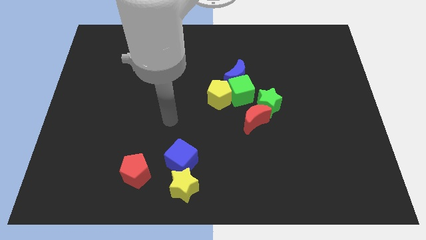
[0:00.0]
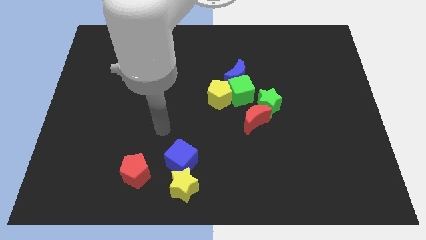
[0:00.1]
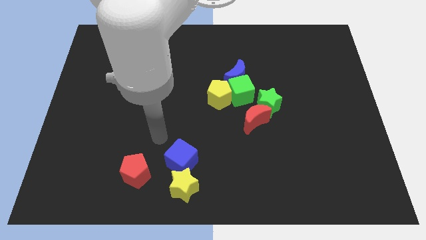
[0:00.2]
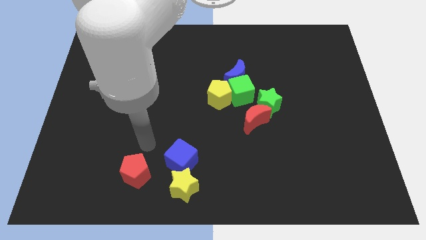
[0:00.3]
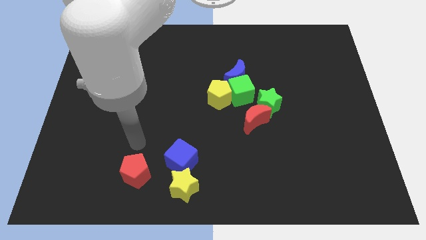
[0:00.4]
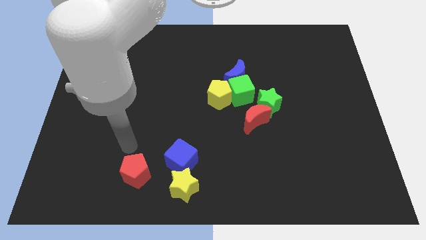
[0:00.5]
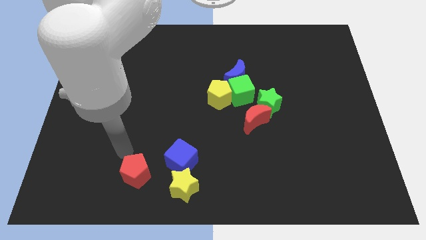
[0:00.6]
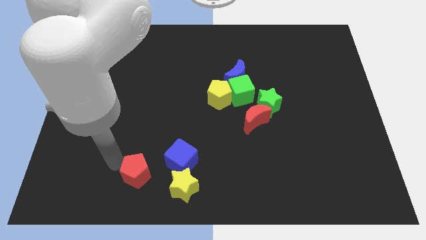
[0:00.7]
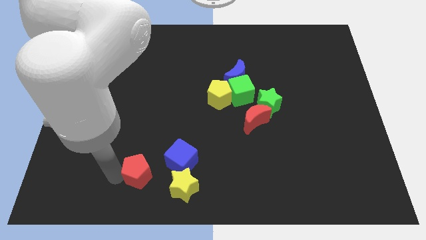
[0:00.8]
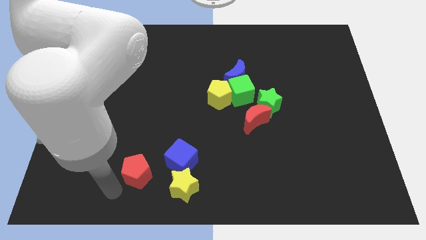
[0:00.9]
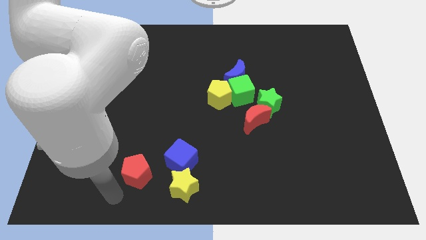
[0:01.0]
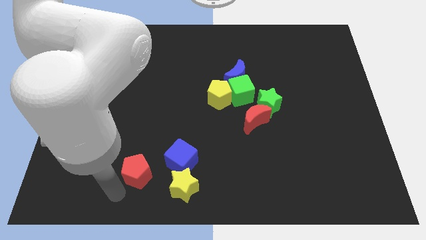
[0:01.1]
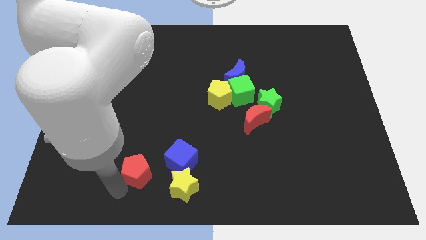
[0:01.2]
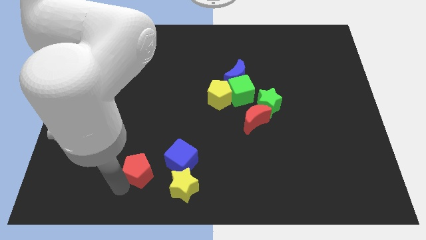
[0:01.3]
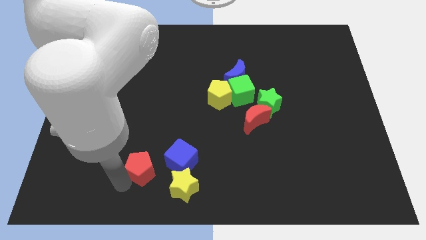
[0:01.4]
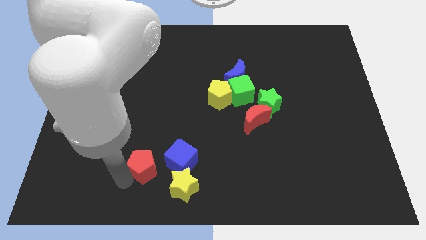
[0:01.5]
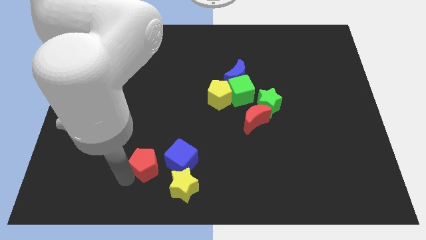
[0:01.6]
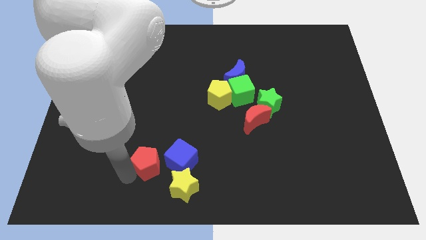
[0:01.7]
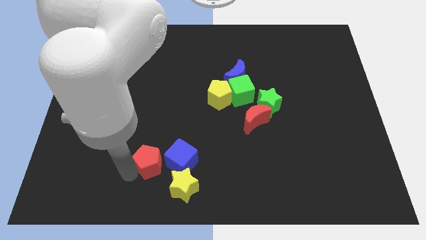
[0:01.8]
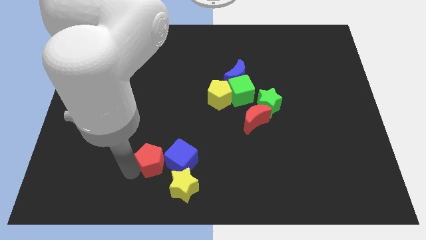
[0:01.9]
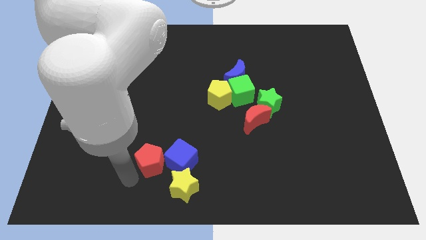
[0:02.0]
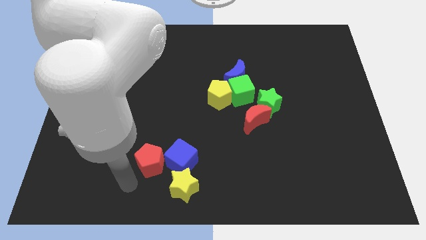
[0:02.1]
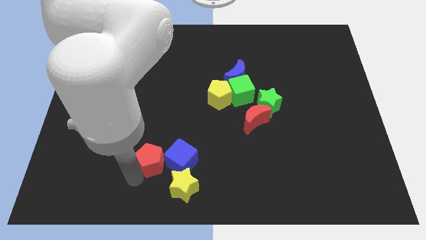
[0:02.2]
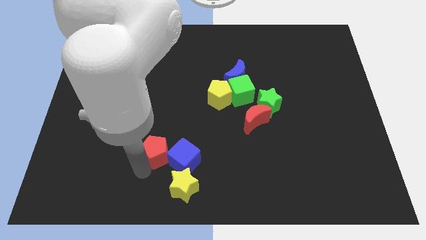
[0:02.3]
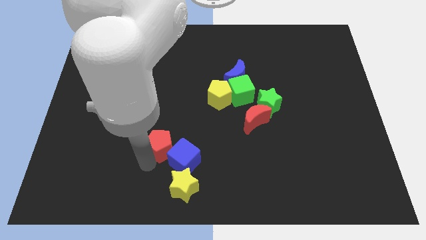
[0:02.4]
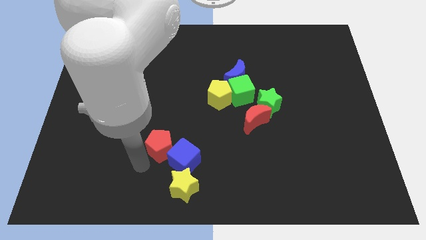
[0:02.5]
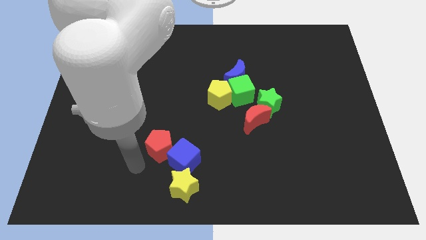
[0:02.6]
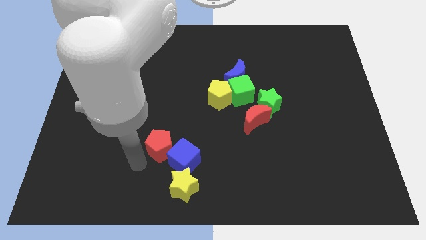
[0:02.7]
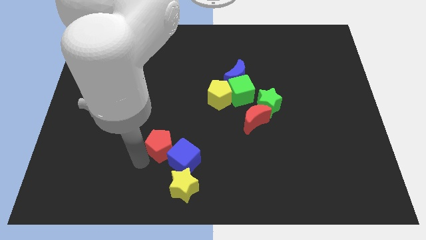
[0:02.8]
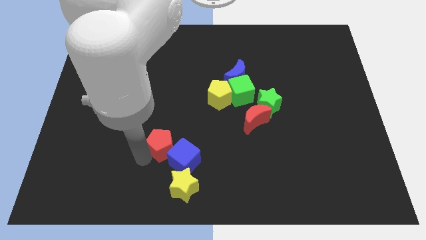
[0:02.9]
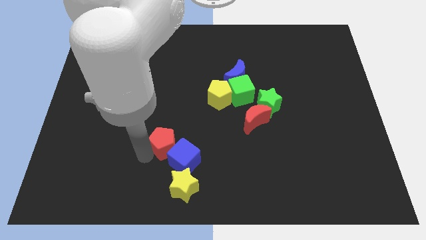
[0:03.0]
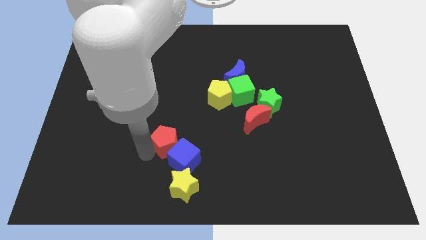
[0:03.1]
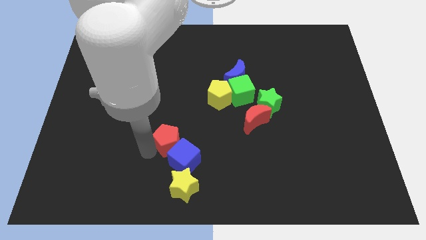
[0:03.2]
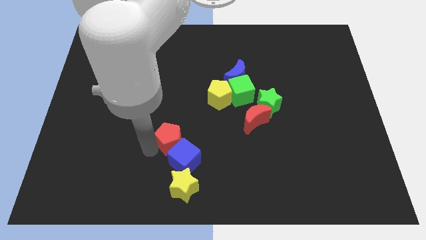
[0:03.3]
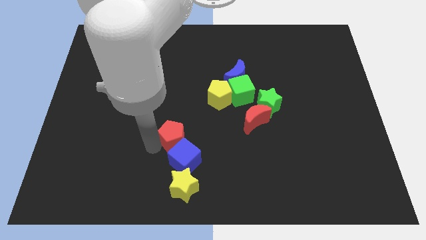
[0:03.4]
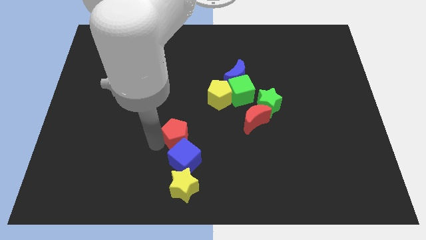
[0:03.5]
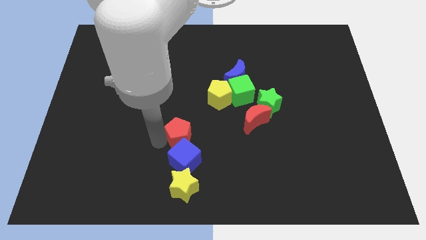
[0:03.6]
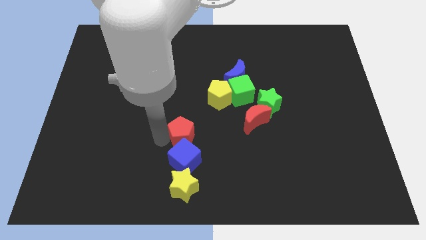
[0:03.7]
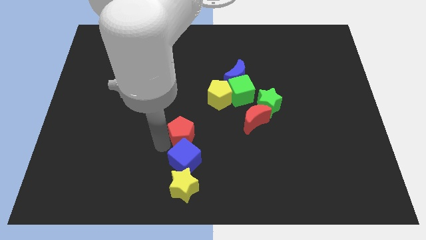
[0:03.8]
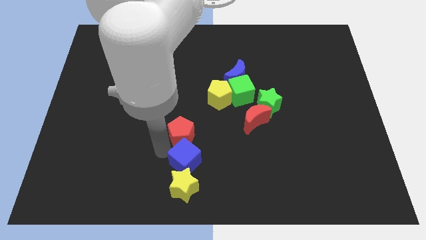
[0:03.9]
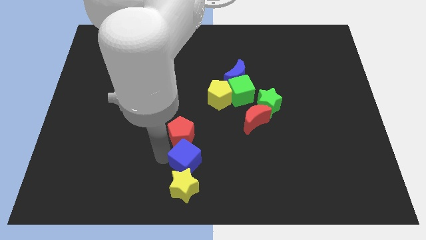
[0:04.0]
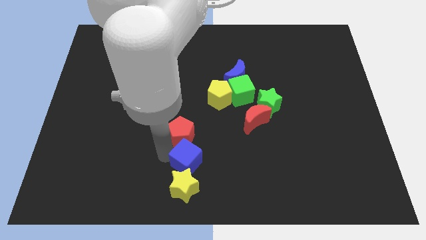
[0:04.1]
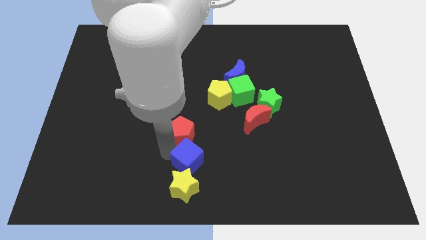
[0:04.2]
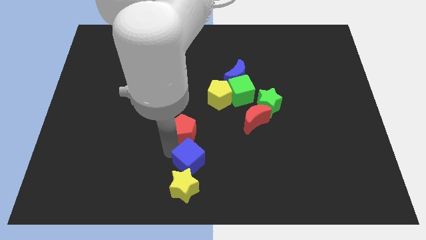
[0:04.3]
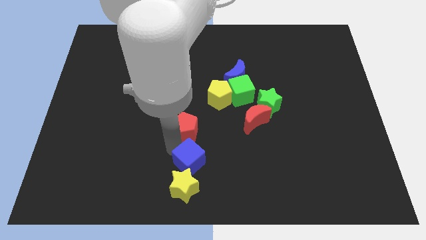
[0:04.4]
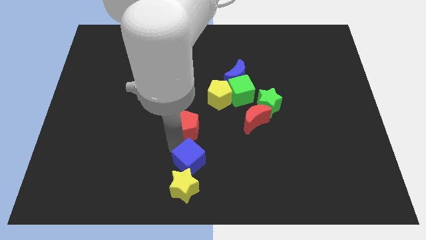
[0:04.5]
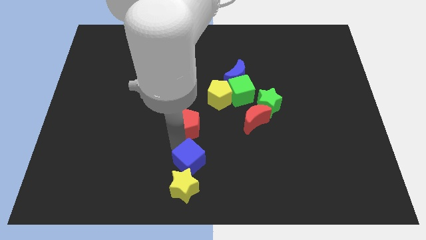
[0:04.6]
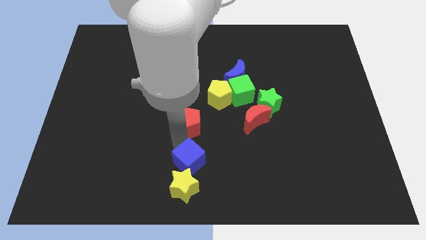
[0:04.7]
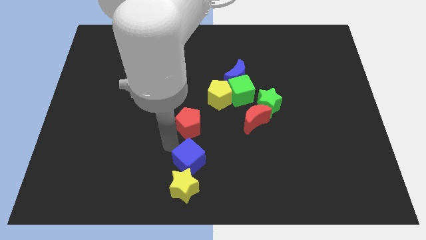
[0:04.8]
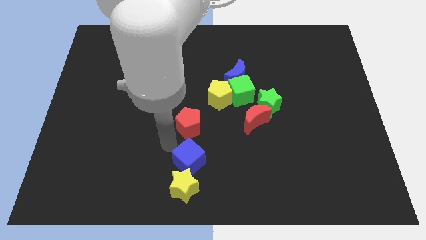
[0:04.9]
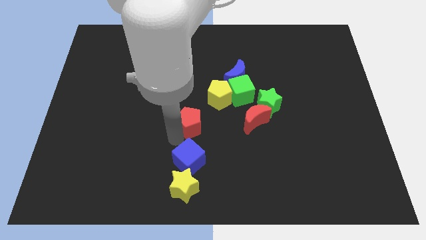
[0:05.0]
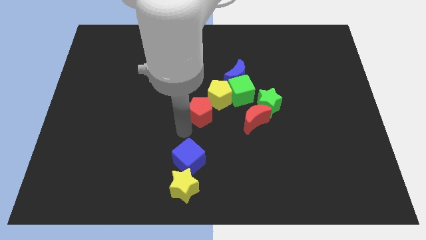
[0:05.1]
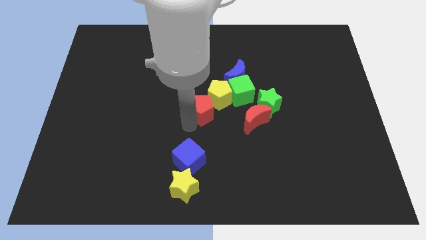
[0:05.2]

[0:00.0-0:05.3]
put the red pentagon next to the yellow pentagon

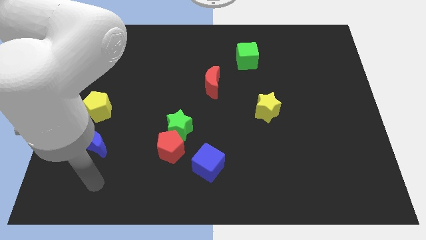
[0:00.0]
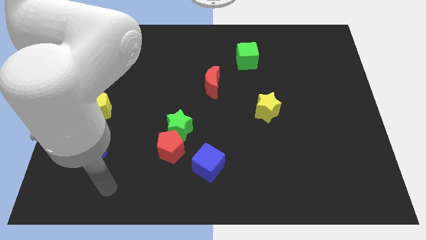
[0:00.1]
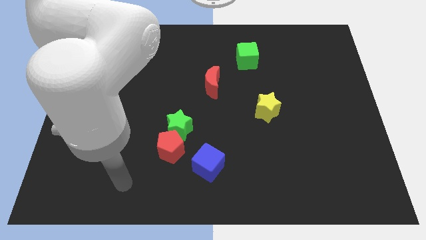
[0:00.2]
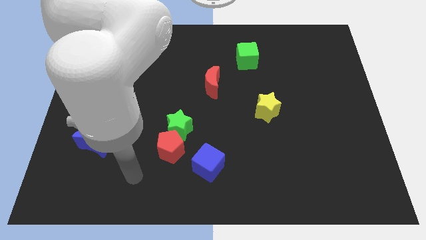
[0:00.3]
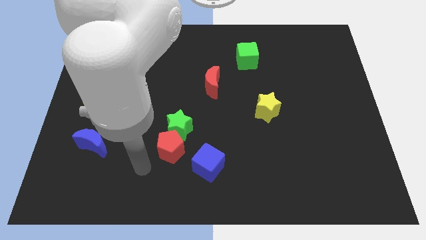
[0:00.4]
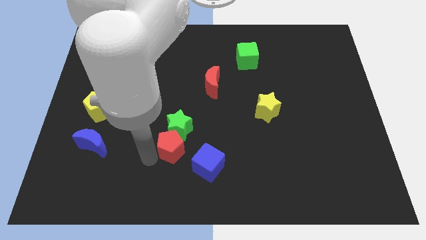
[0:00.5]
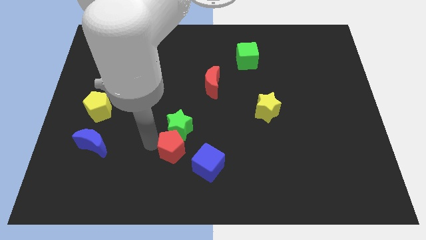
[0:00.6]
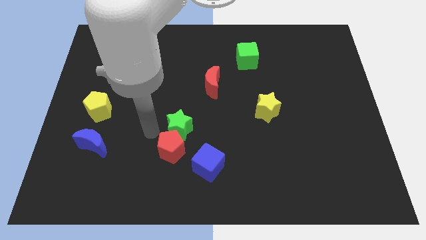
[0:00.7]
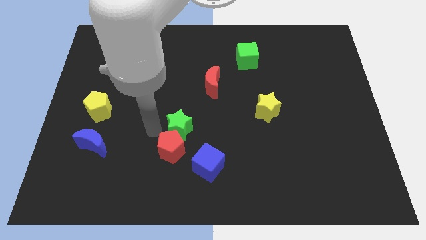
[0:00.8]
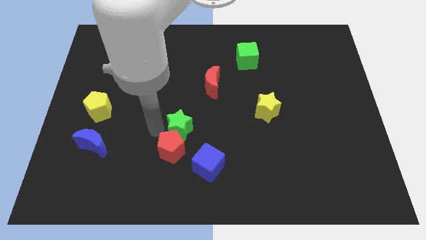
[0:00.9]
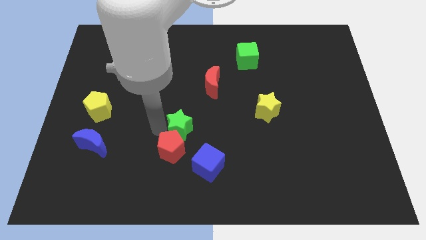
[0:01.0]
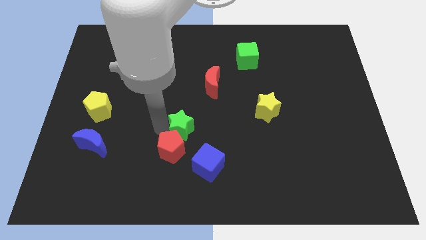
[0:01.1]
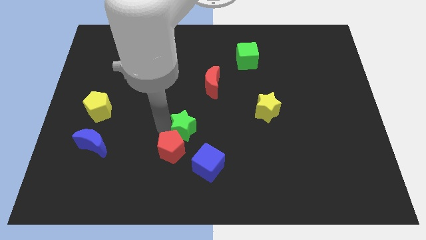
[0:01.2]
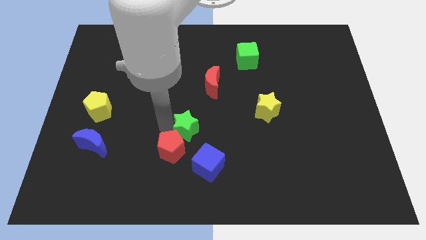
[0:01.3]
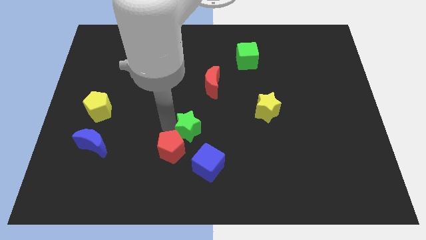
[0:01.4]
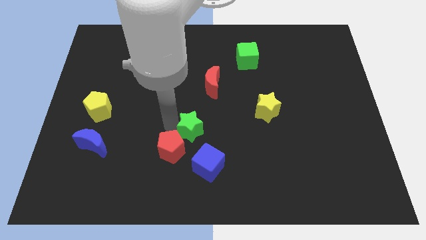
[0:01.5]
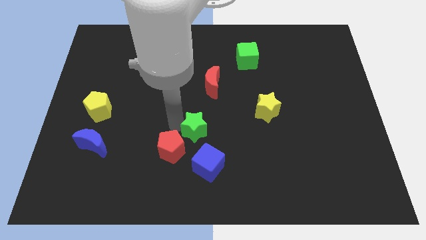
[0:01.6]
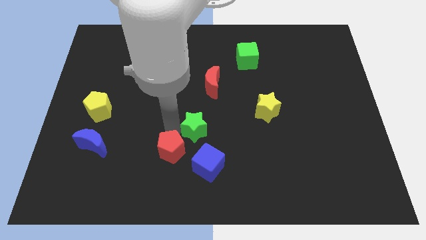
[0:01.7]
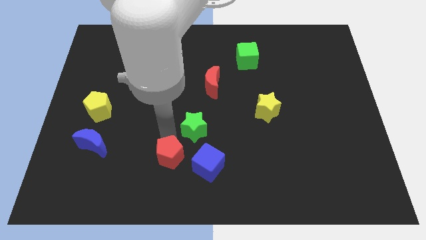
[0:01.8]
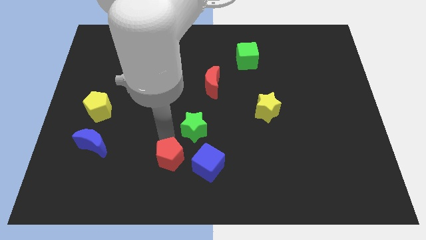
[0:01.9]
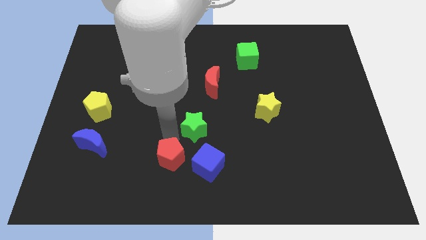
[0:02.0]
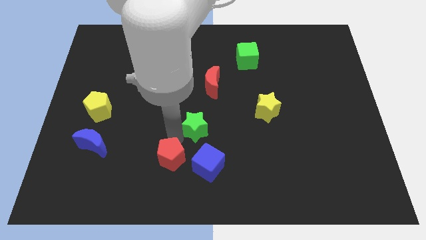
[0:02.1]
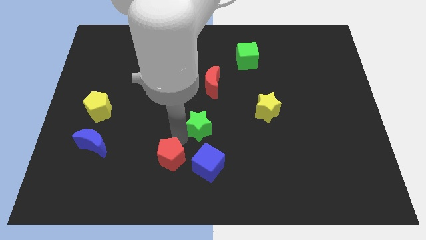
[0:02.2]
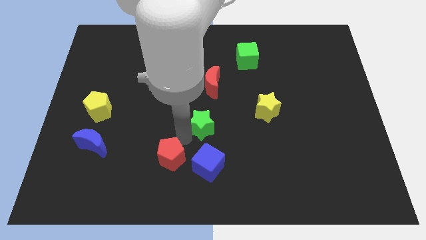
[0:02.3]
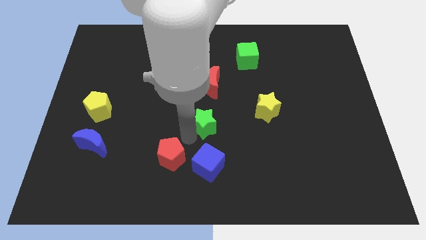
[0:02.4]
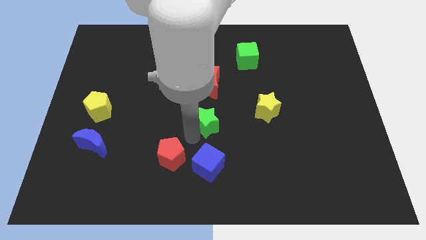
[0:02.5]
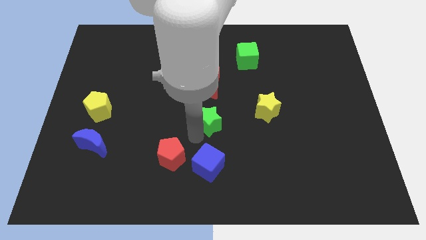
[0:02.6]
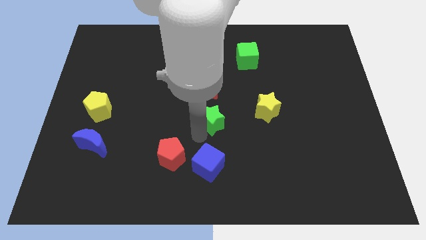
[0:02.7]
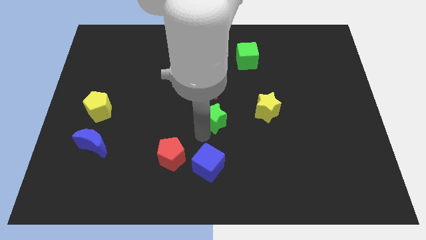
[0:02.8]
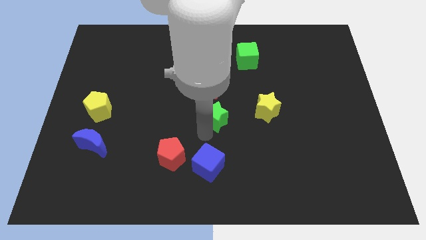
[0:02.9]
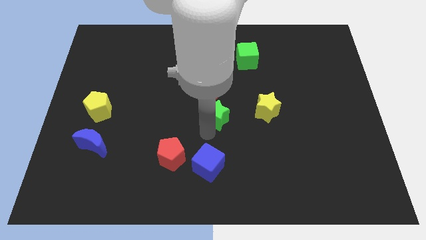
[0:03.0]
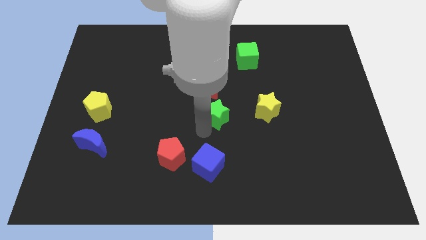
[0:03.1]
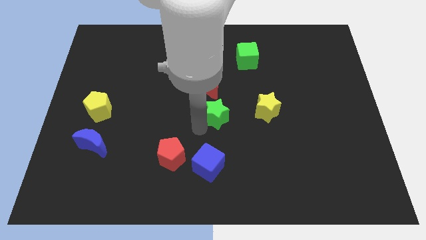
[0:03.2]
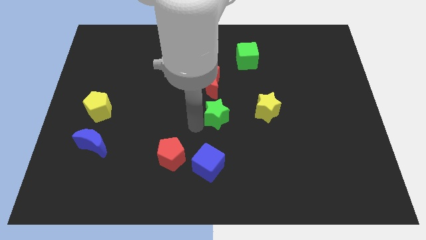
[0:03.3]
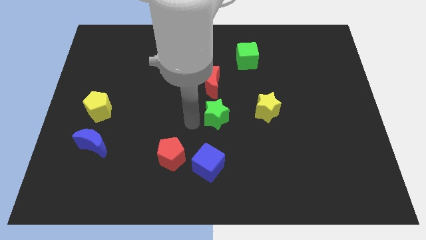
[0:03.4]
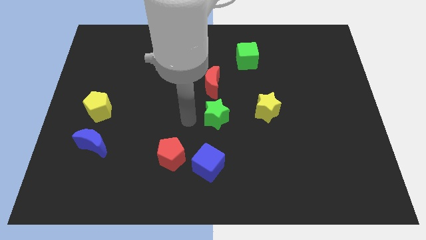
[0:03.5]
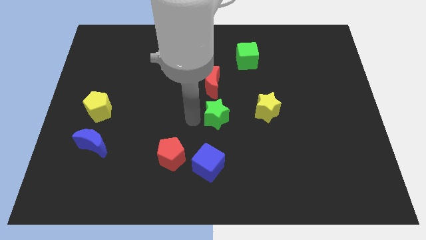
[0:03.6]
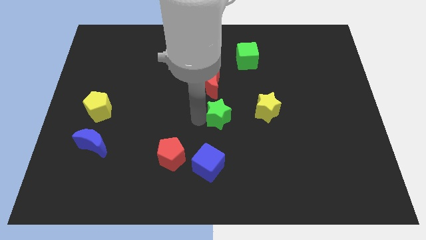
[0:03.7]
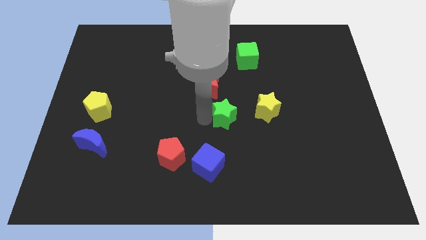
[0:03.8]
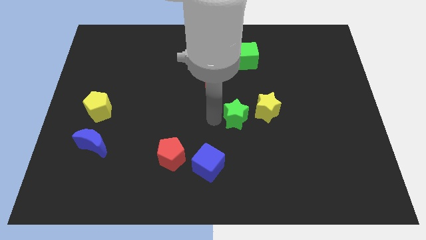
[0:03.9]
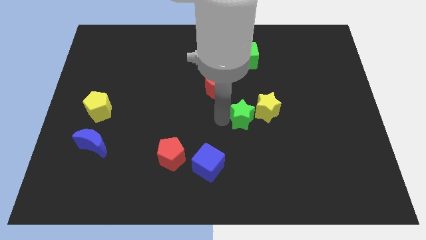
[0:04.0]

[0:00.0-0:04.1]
move the green star close to the yellow star
